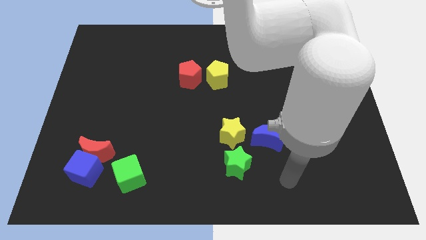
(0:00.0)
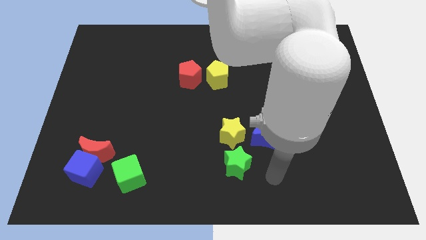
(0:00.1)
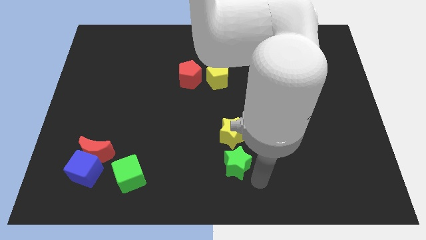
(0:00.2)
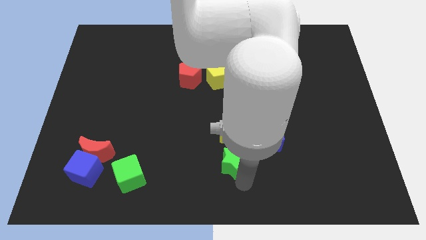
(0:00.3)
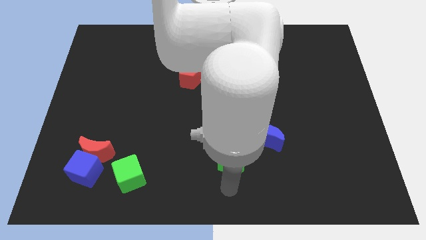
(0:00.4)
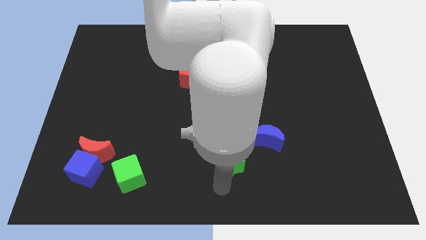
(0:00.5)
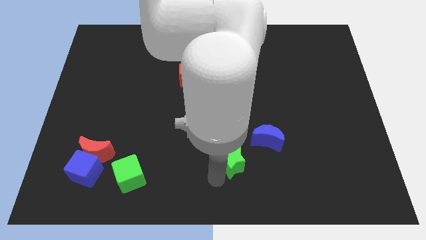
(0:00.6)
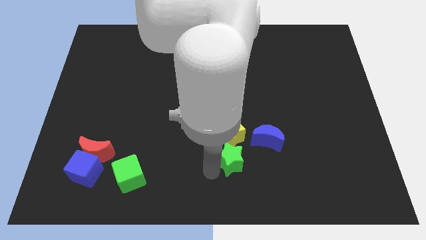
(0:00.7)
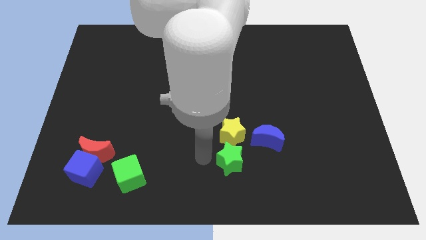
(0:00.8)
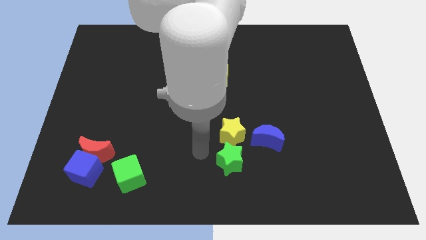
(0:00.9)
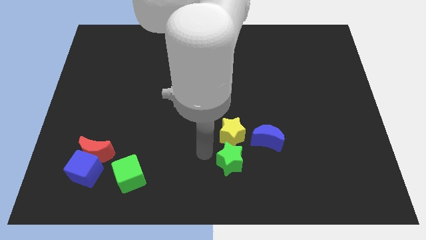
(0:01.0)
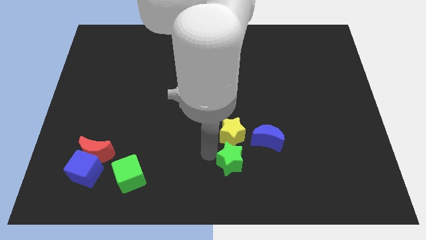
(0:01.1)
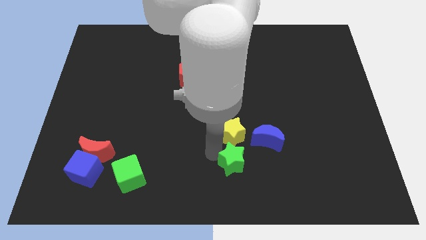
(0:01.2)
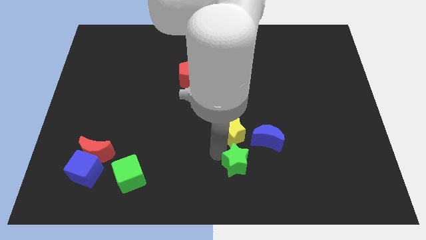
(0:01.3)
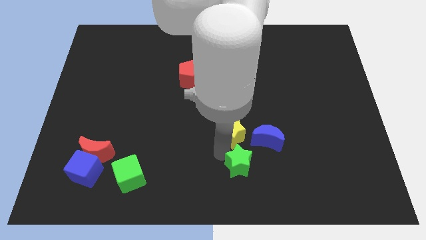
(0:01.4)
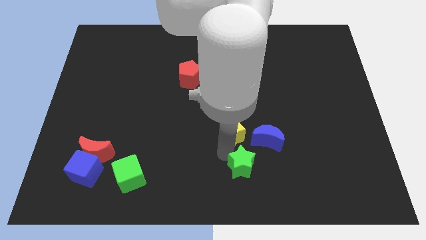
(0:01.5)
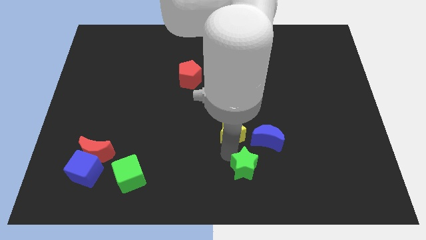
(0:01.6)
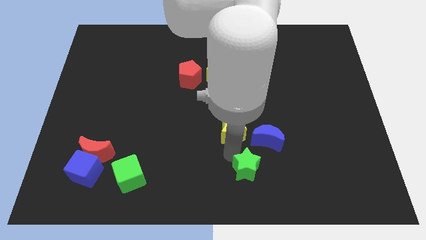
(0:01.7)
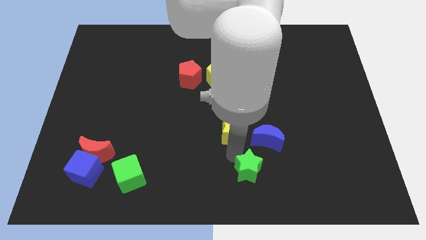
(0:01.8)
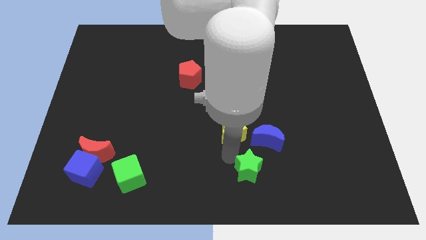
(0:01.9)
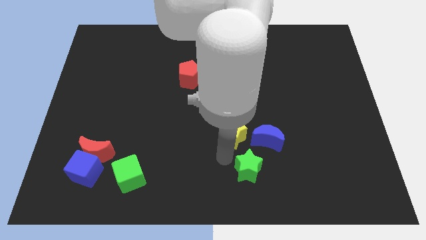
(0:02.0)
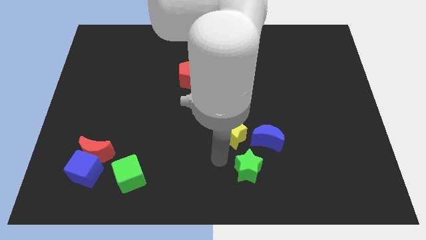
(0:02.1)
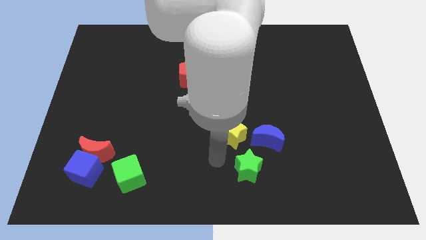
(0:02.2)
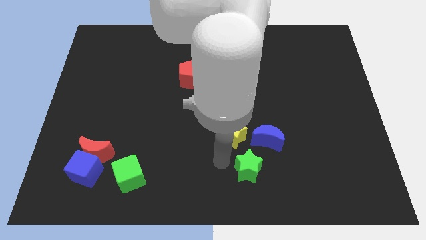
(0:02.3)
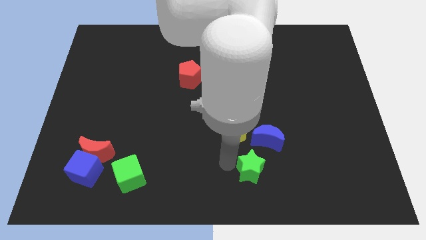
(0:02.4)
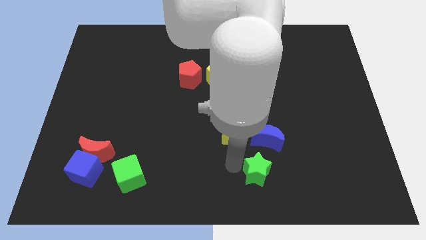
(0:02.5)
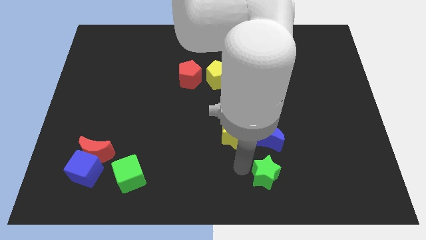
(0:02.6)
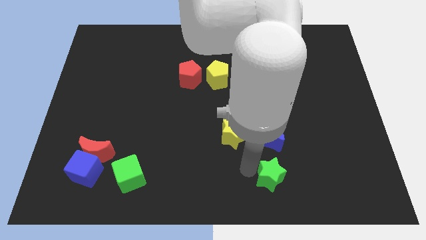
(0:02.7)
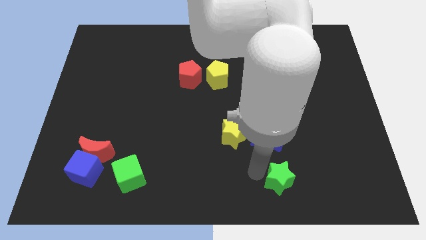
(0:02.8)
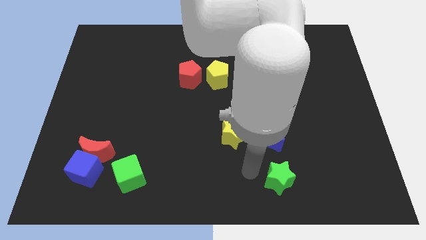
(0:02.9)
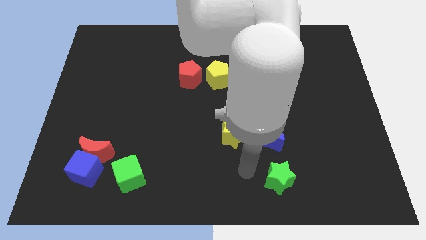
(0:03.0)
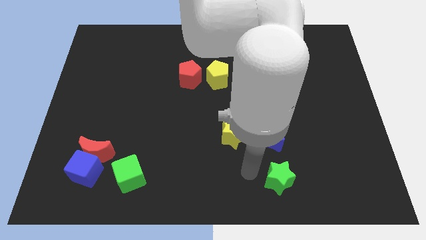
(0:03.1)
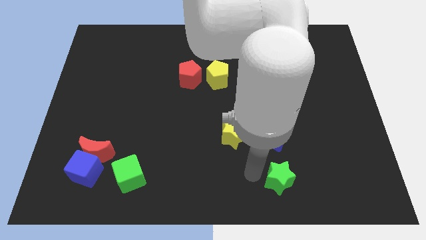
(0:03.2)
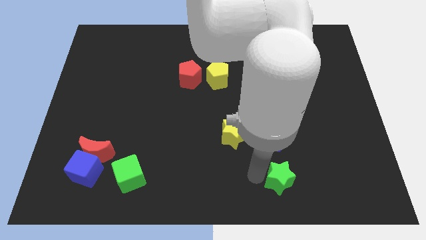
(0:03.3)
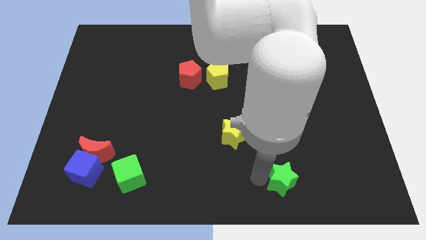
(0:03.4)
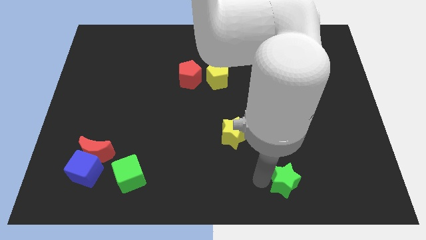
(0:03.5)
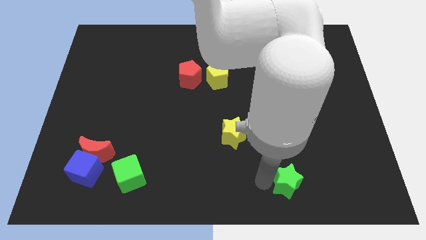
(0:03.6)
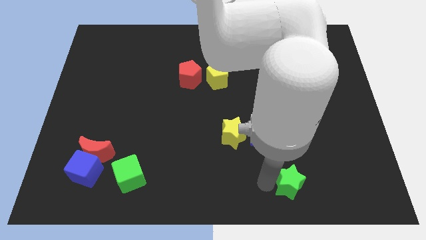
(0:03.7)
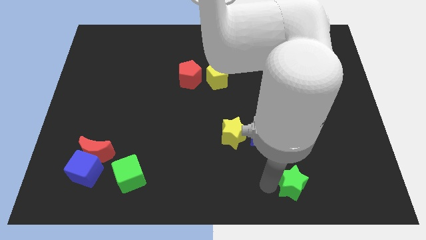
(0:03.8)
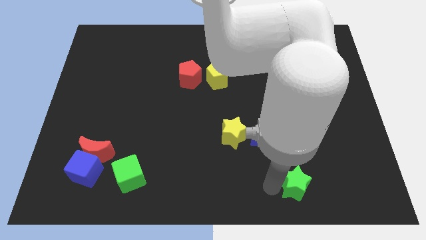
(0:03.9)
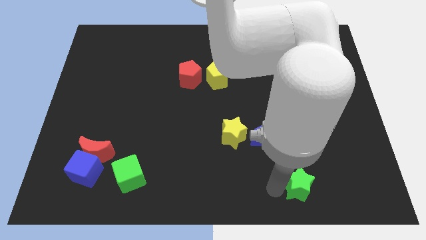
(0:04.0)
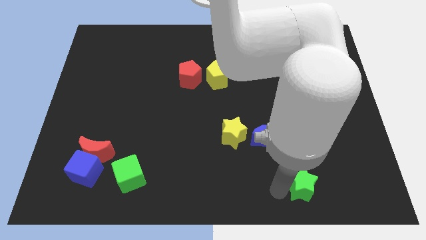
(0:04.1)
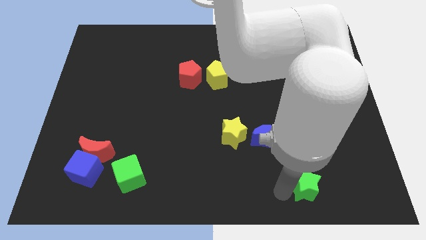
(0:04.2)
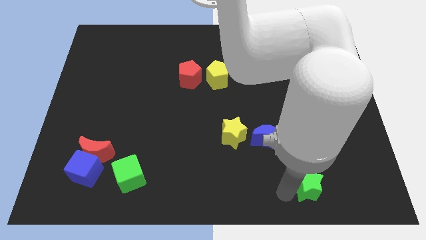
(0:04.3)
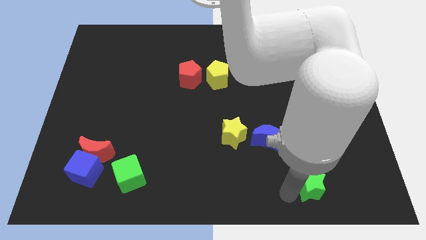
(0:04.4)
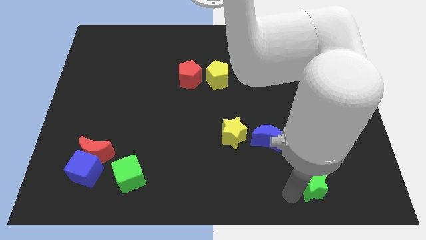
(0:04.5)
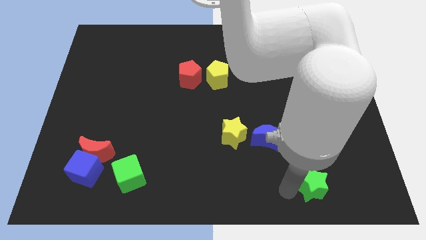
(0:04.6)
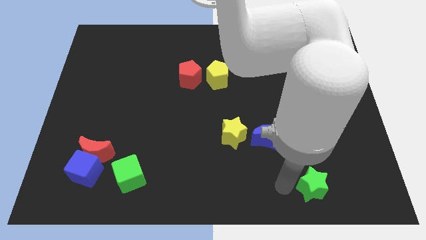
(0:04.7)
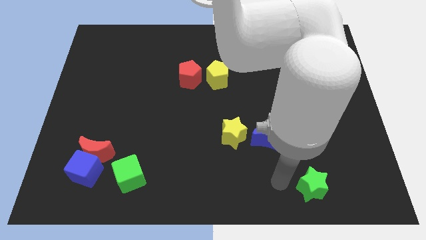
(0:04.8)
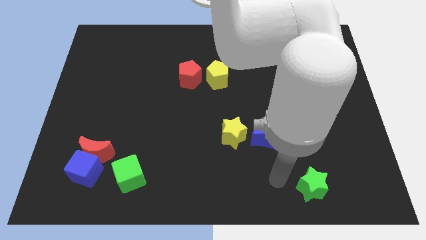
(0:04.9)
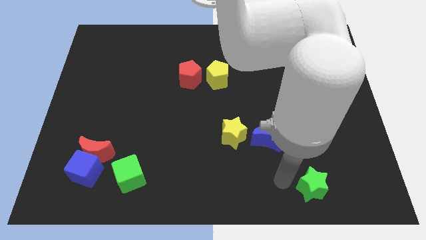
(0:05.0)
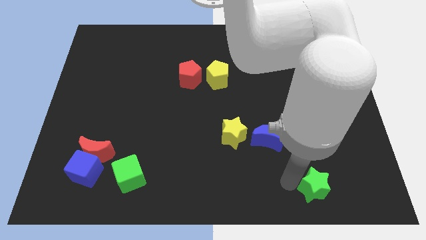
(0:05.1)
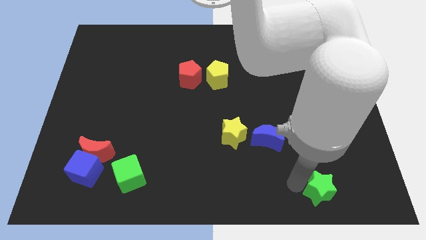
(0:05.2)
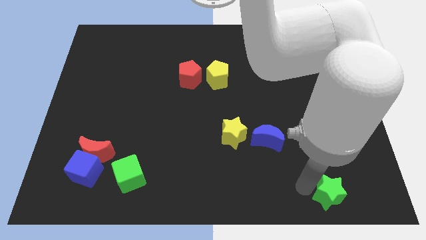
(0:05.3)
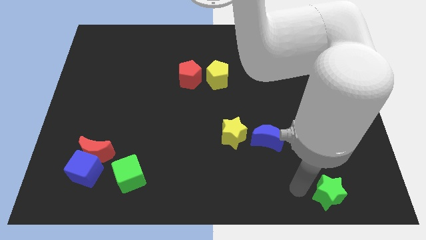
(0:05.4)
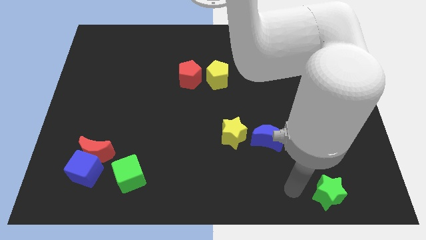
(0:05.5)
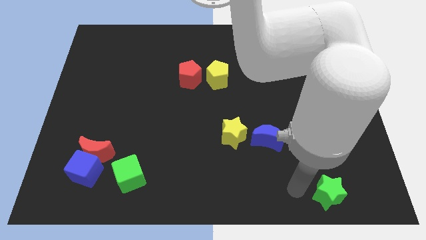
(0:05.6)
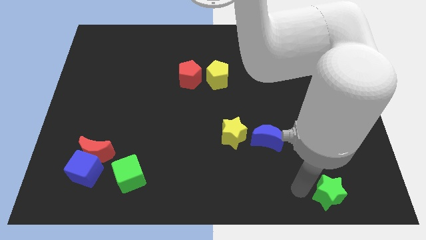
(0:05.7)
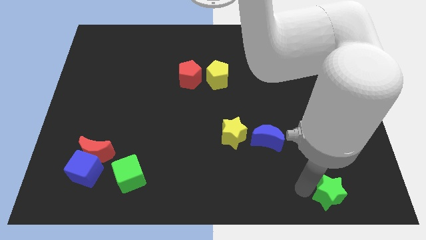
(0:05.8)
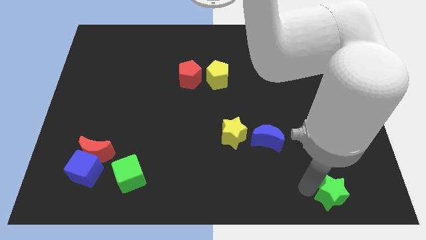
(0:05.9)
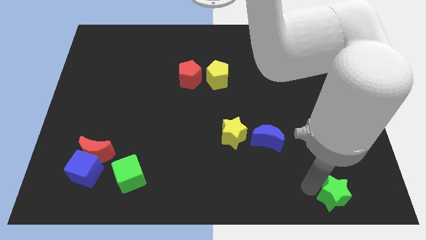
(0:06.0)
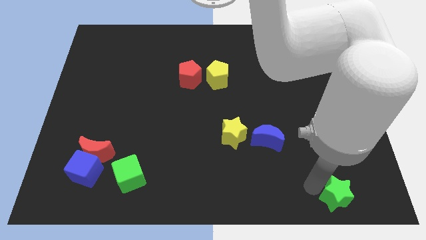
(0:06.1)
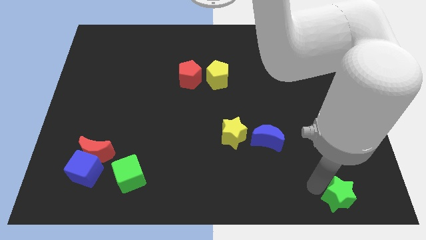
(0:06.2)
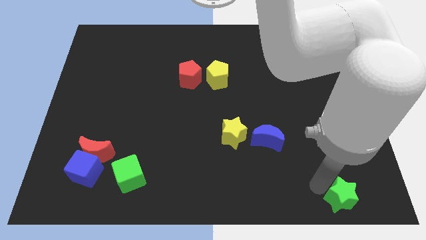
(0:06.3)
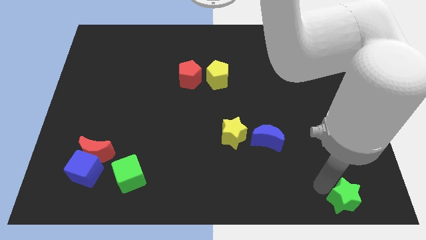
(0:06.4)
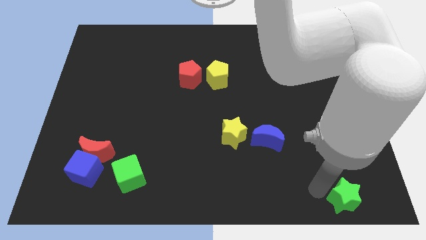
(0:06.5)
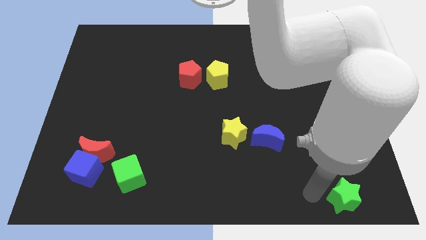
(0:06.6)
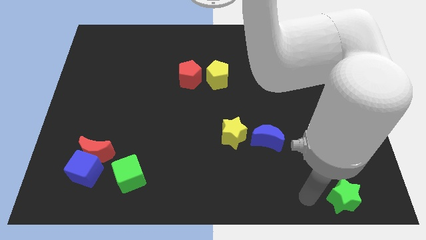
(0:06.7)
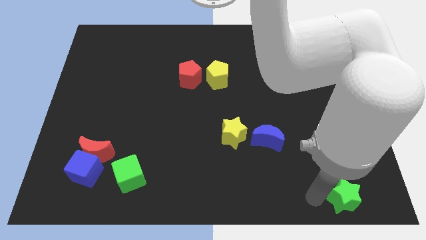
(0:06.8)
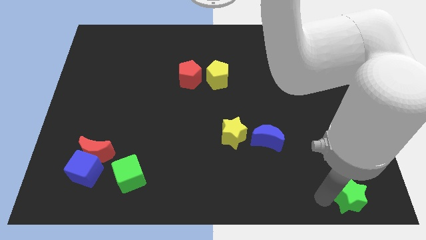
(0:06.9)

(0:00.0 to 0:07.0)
put the green star to the bottom right of the board

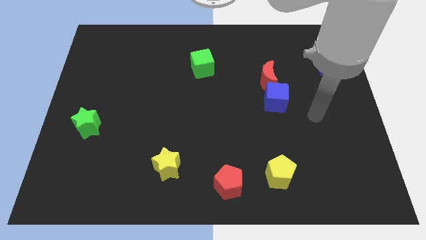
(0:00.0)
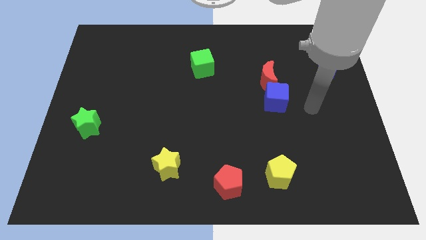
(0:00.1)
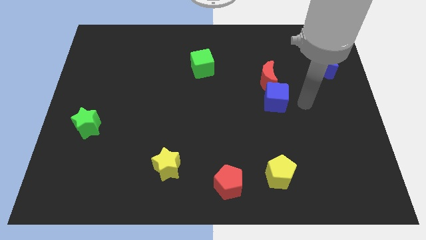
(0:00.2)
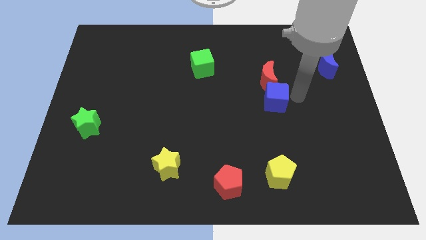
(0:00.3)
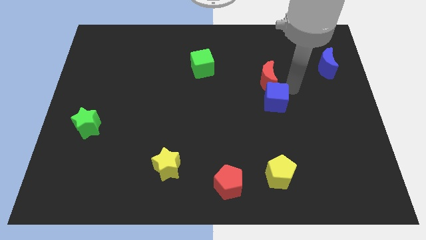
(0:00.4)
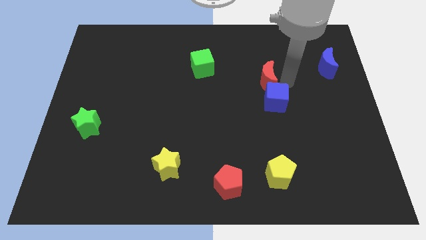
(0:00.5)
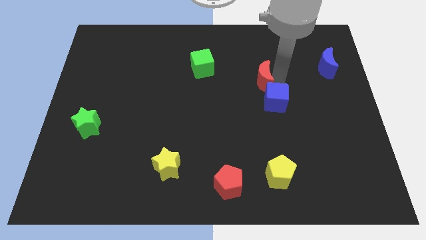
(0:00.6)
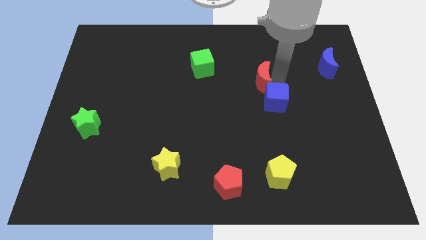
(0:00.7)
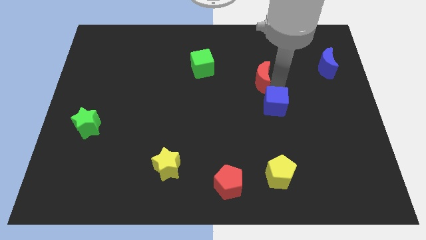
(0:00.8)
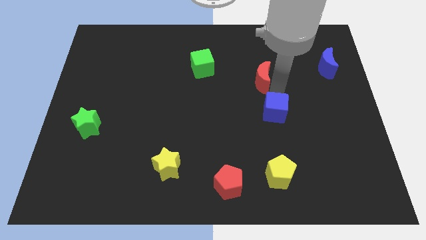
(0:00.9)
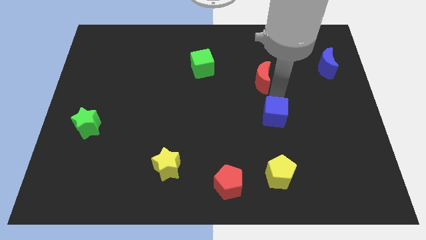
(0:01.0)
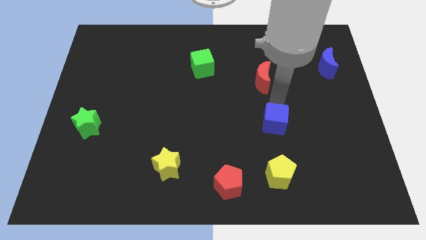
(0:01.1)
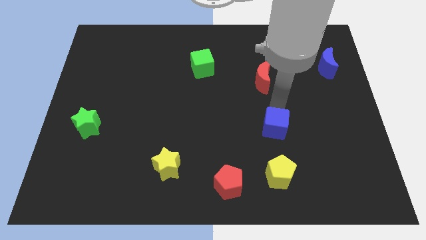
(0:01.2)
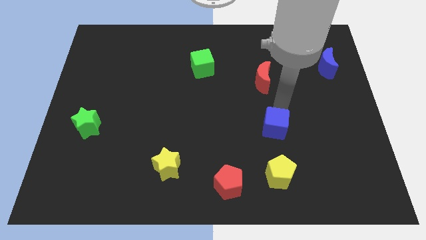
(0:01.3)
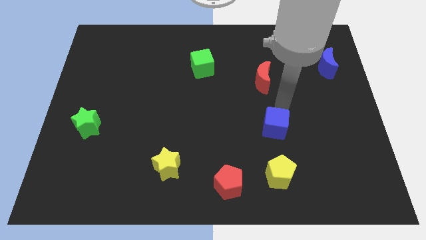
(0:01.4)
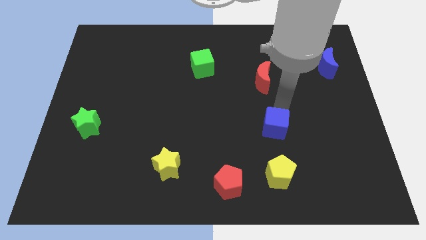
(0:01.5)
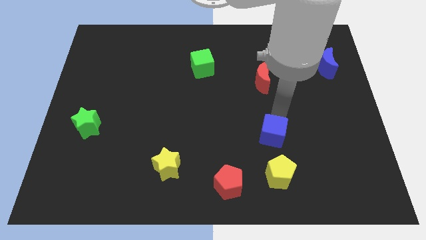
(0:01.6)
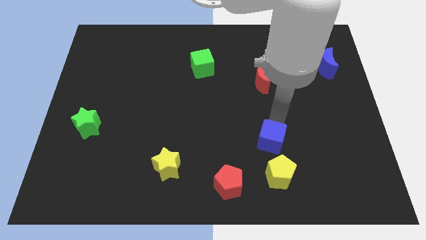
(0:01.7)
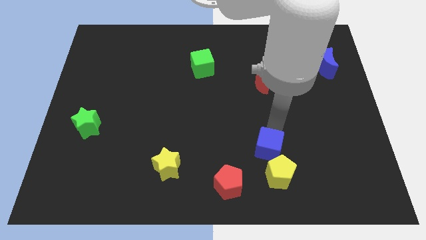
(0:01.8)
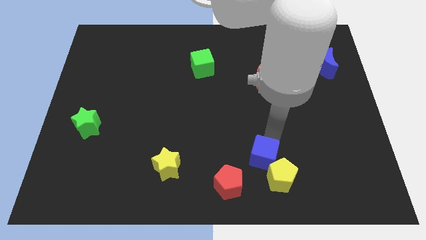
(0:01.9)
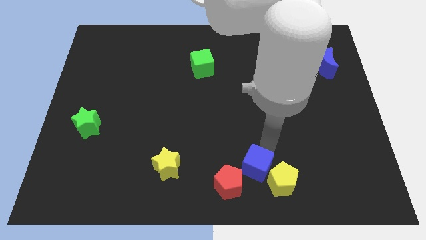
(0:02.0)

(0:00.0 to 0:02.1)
push the blue cube to the bottom side
